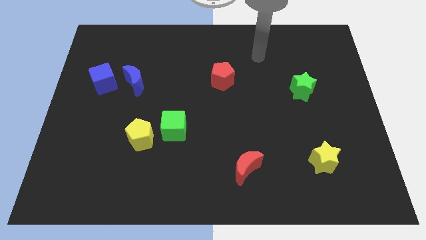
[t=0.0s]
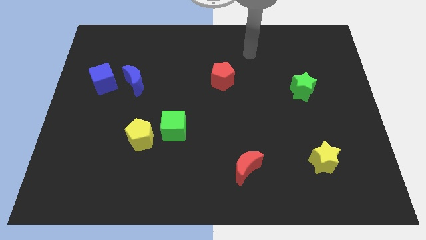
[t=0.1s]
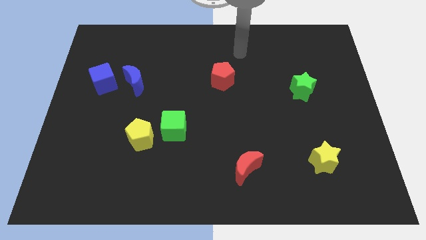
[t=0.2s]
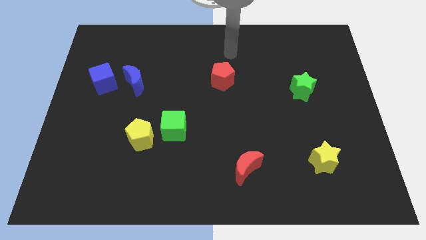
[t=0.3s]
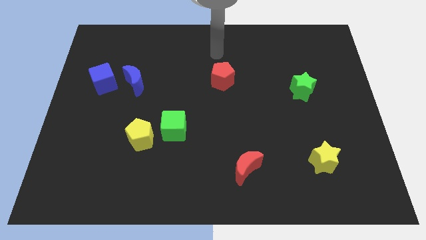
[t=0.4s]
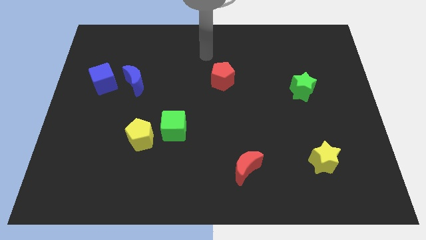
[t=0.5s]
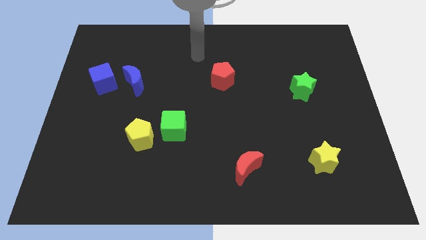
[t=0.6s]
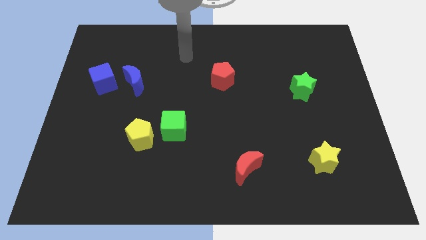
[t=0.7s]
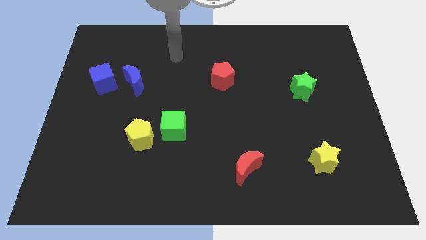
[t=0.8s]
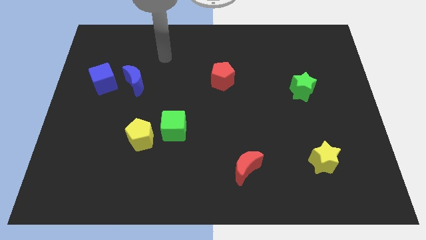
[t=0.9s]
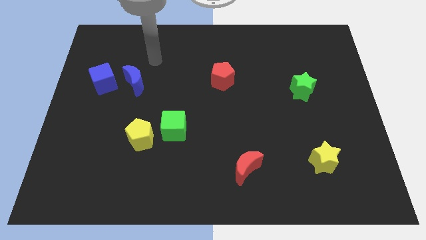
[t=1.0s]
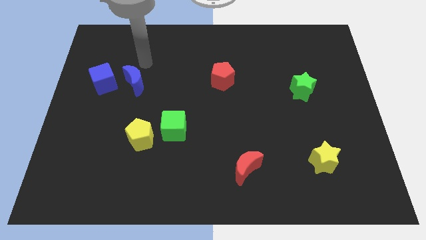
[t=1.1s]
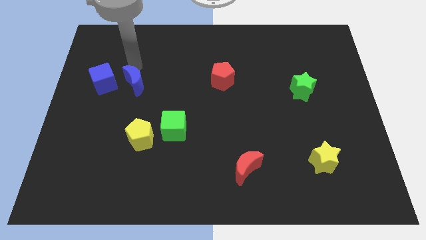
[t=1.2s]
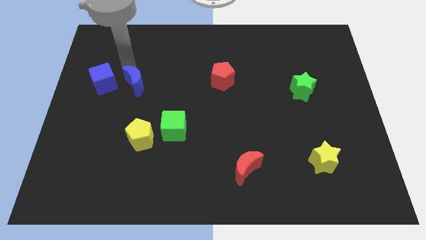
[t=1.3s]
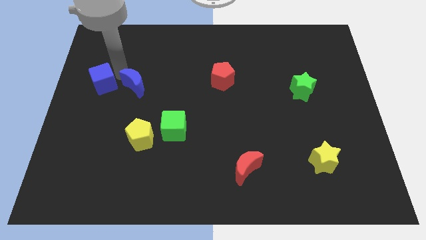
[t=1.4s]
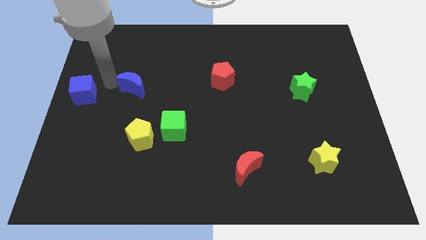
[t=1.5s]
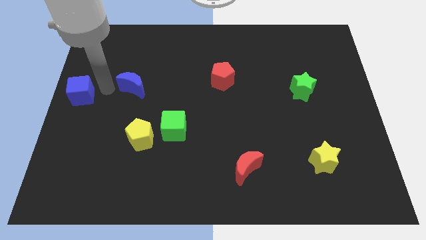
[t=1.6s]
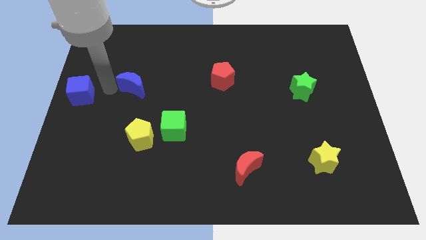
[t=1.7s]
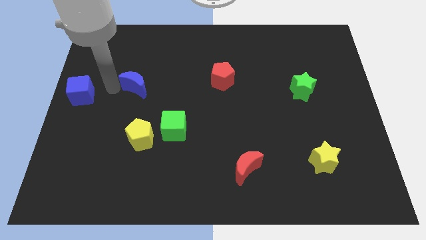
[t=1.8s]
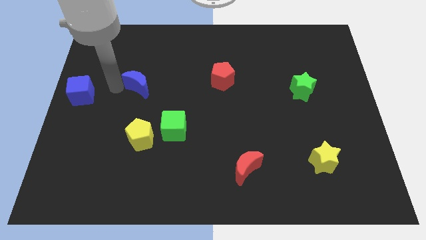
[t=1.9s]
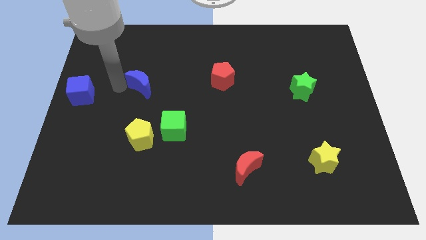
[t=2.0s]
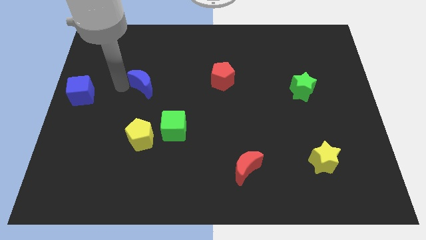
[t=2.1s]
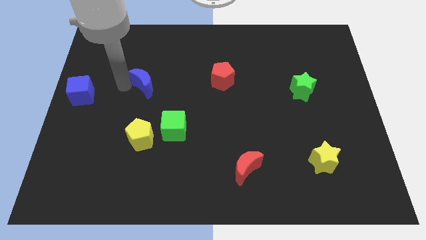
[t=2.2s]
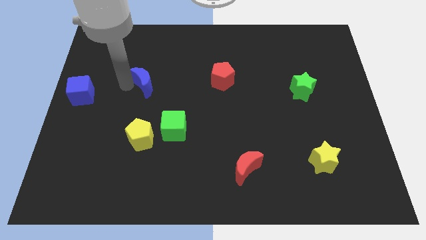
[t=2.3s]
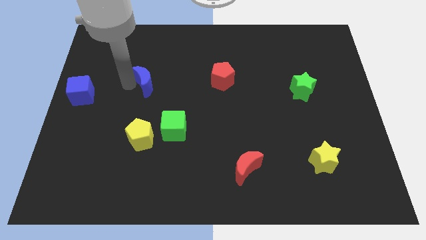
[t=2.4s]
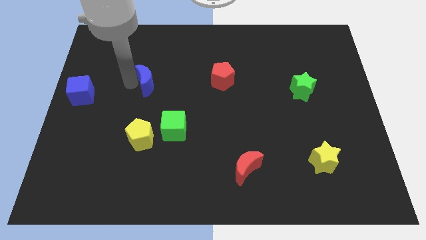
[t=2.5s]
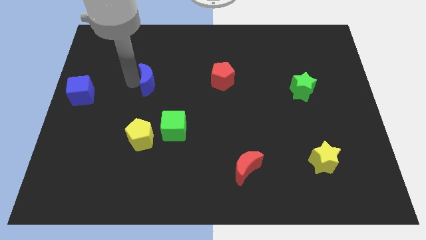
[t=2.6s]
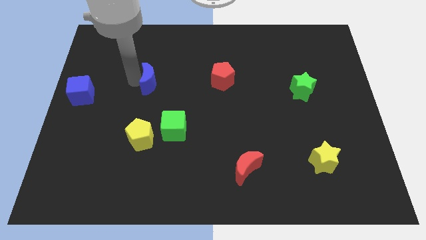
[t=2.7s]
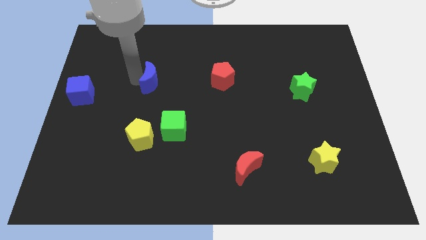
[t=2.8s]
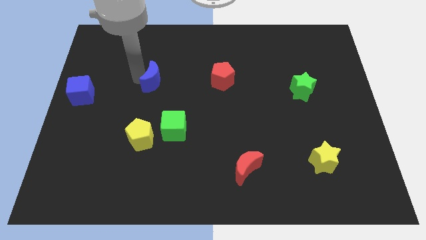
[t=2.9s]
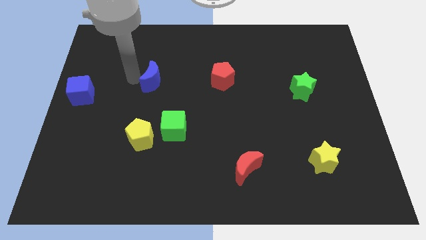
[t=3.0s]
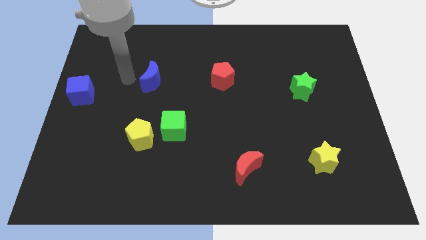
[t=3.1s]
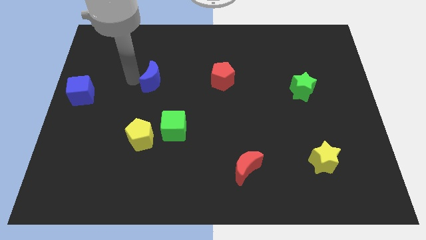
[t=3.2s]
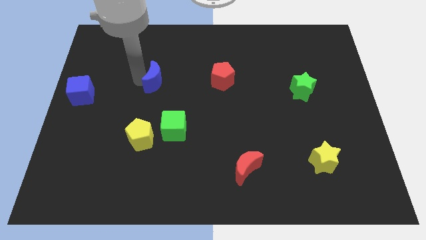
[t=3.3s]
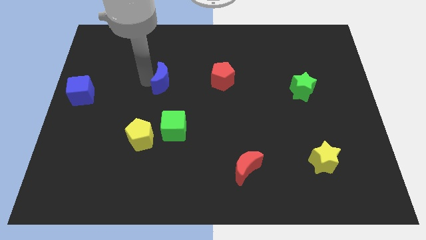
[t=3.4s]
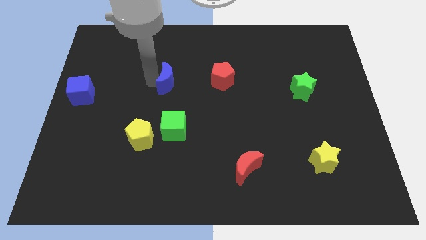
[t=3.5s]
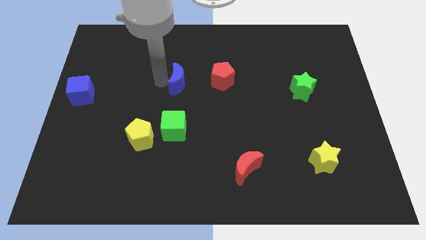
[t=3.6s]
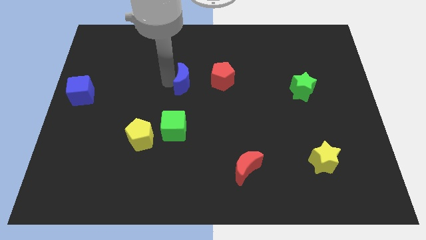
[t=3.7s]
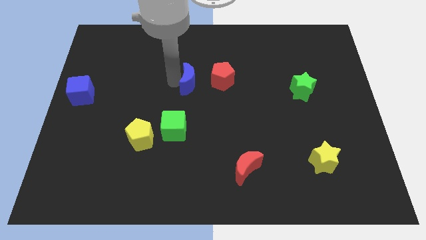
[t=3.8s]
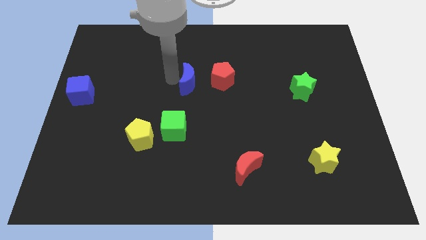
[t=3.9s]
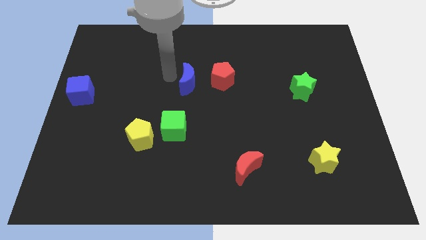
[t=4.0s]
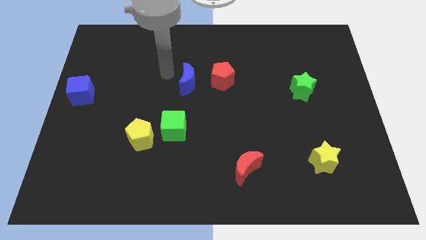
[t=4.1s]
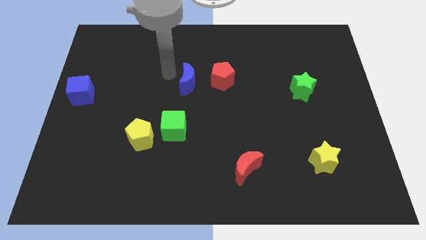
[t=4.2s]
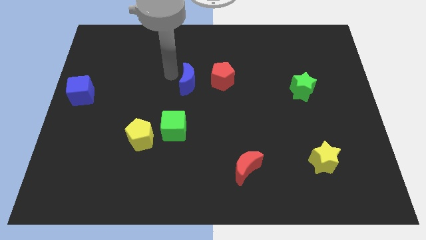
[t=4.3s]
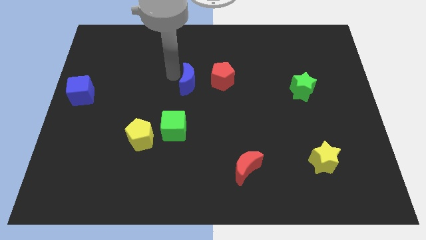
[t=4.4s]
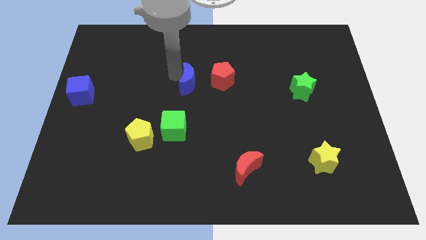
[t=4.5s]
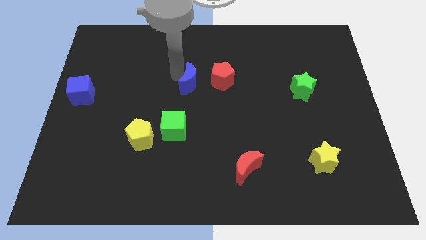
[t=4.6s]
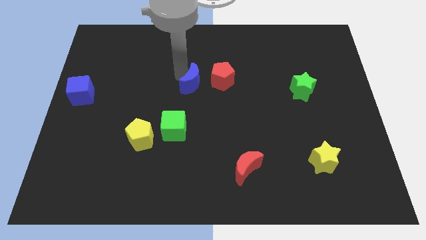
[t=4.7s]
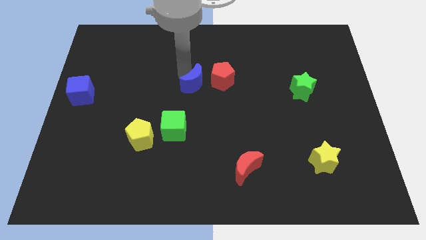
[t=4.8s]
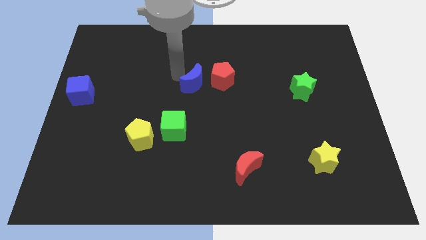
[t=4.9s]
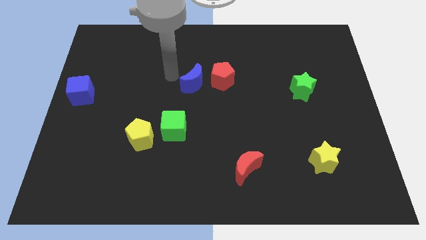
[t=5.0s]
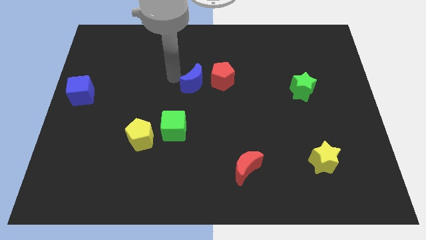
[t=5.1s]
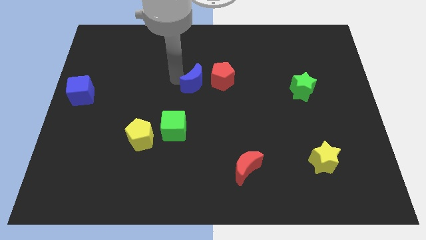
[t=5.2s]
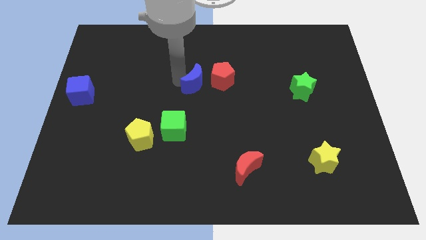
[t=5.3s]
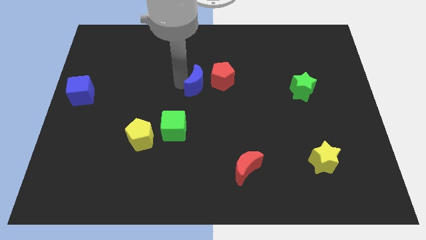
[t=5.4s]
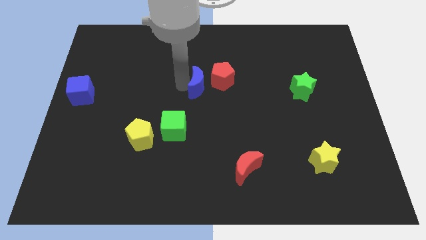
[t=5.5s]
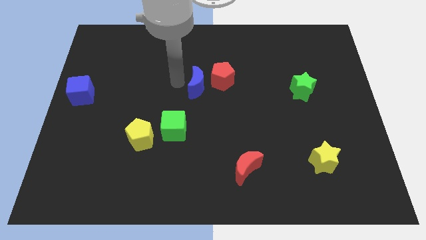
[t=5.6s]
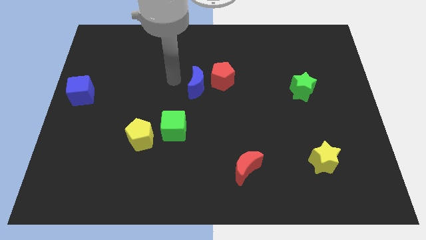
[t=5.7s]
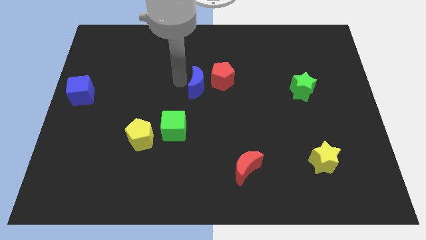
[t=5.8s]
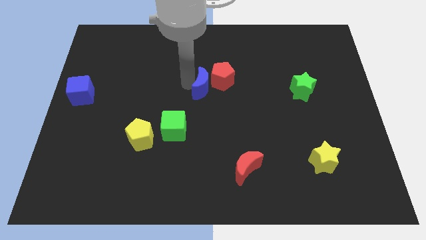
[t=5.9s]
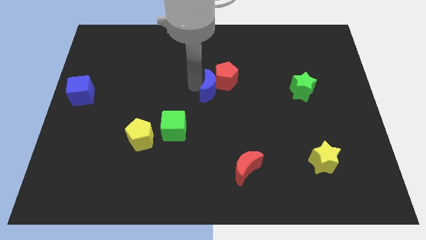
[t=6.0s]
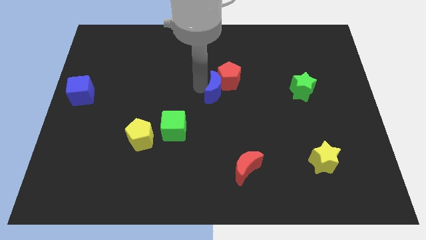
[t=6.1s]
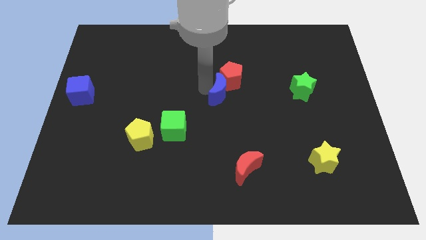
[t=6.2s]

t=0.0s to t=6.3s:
move the blue moon to the right

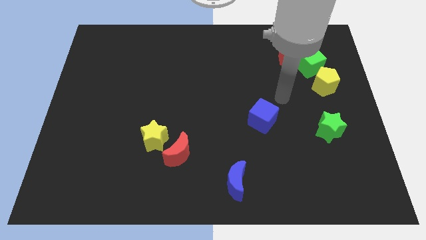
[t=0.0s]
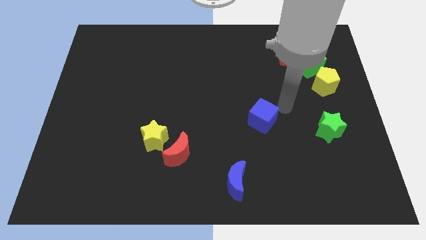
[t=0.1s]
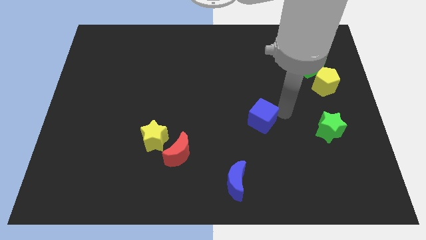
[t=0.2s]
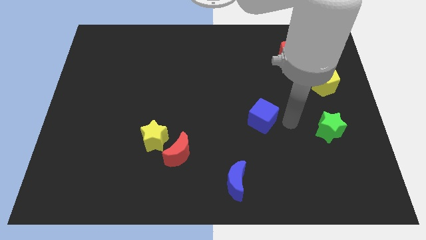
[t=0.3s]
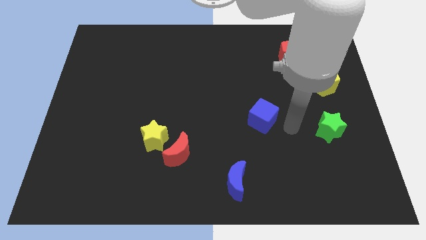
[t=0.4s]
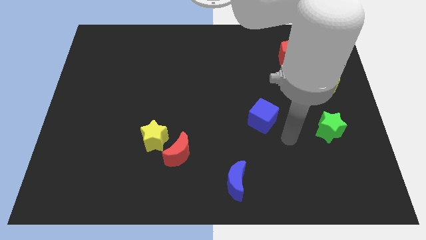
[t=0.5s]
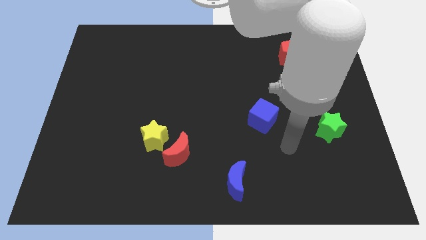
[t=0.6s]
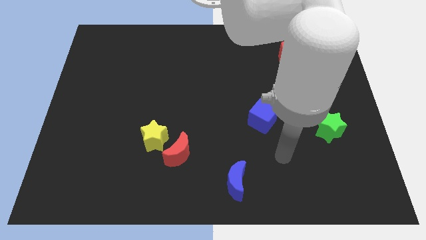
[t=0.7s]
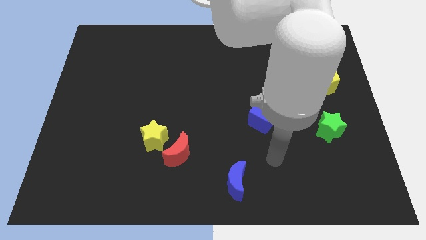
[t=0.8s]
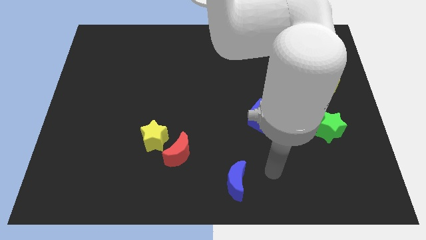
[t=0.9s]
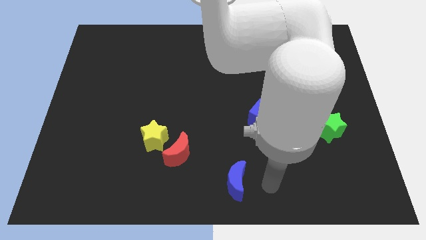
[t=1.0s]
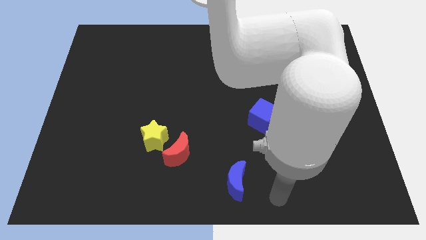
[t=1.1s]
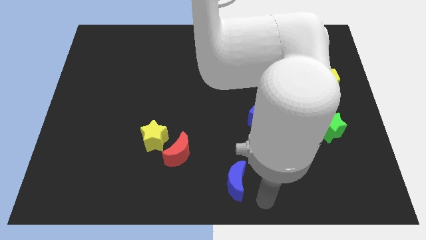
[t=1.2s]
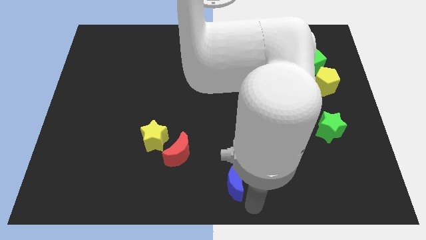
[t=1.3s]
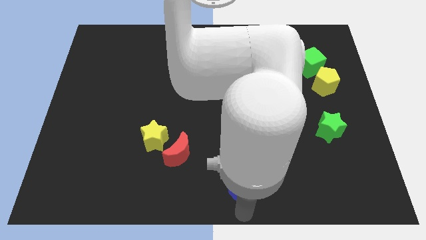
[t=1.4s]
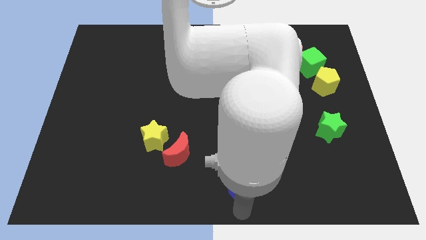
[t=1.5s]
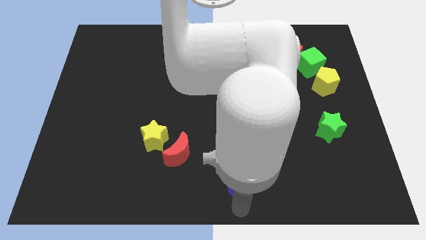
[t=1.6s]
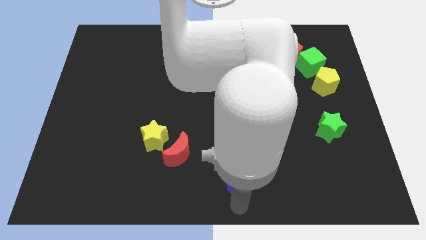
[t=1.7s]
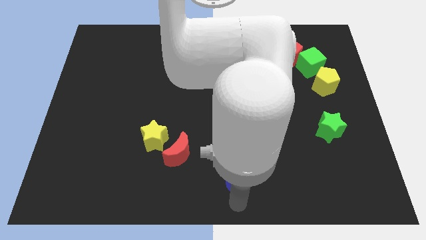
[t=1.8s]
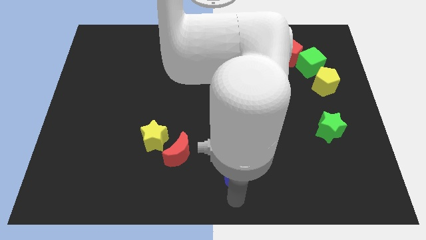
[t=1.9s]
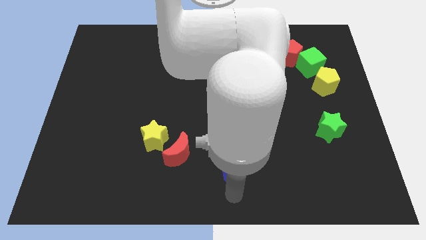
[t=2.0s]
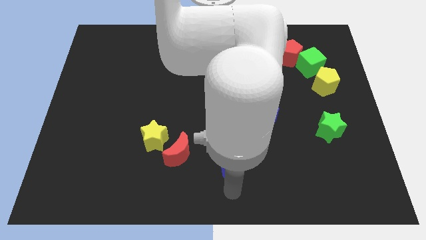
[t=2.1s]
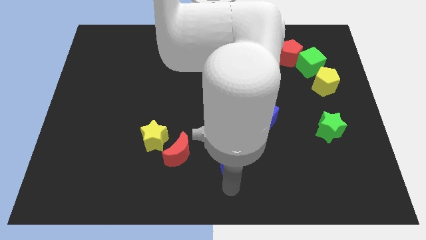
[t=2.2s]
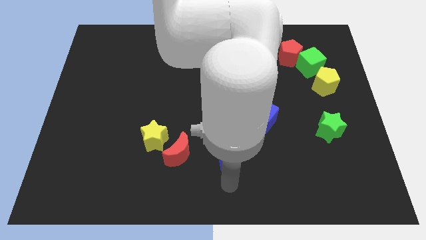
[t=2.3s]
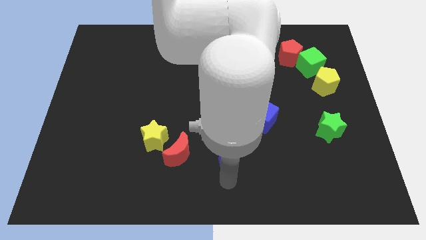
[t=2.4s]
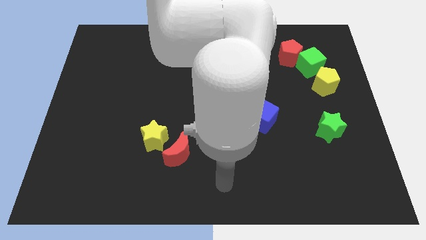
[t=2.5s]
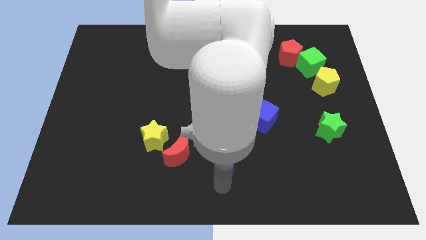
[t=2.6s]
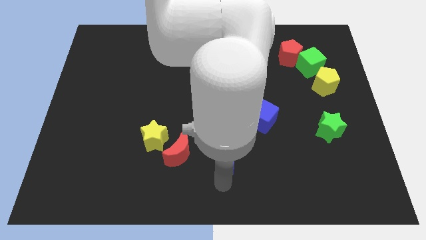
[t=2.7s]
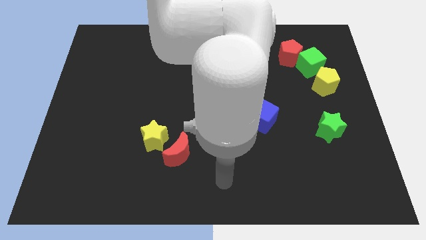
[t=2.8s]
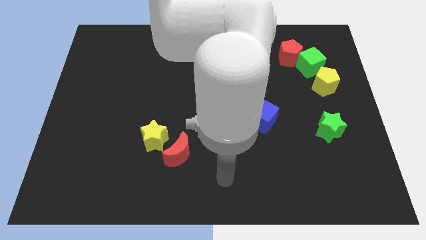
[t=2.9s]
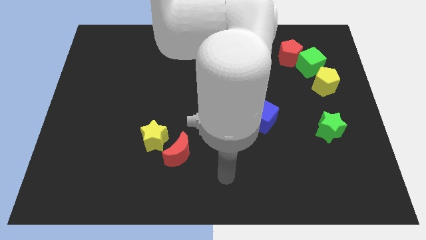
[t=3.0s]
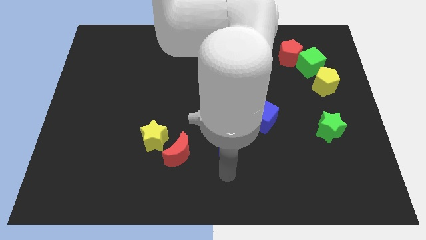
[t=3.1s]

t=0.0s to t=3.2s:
slightly push the blue moon up
